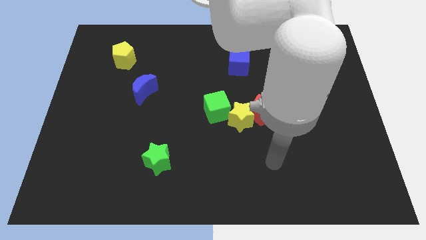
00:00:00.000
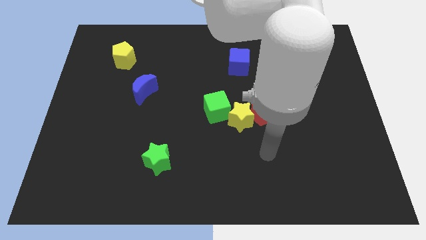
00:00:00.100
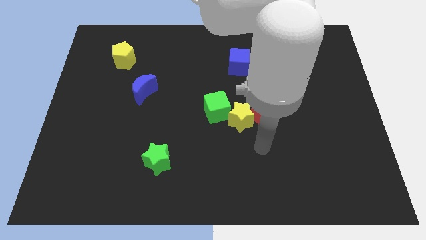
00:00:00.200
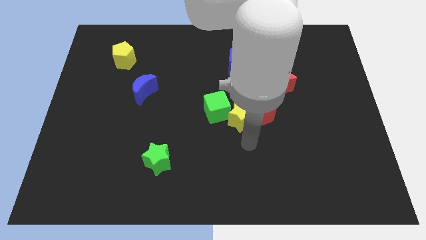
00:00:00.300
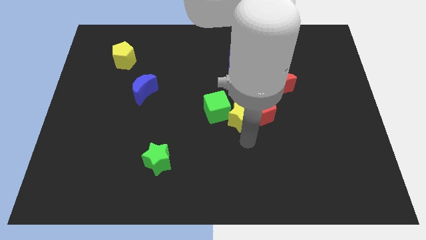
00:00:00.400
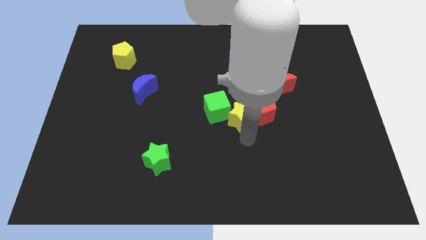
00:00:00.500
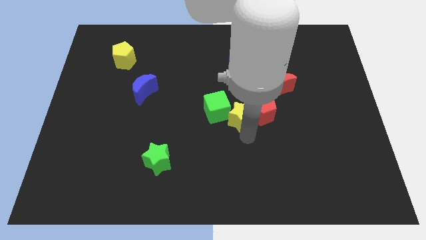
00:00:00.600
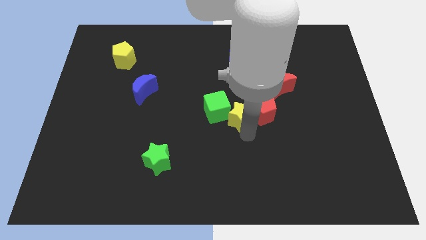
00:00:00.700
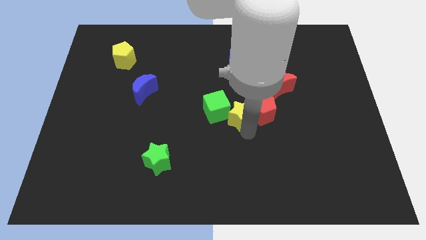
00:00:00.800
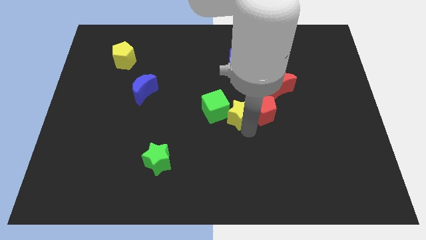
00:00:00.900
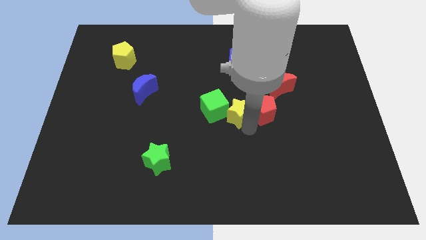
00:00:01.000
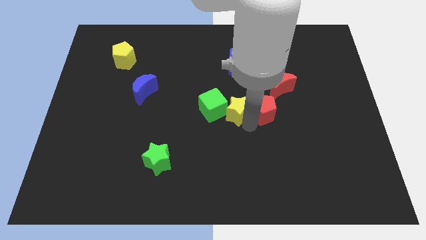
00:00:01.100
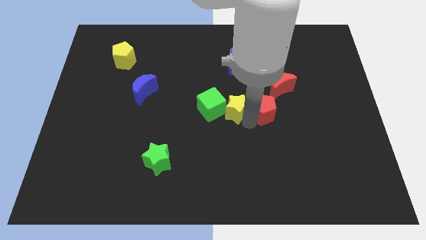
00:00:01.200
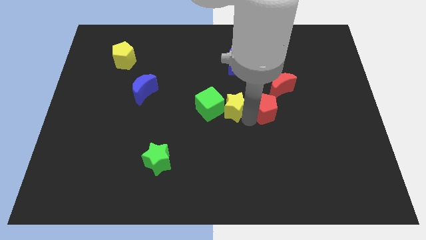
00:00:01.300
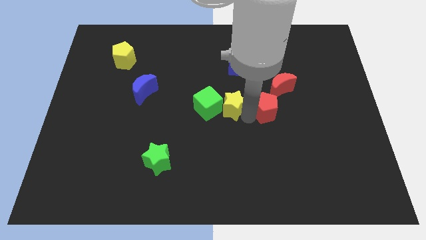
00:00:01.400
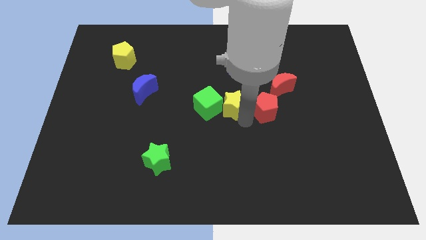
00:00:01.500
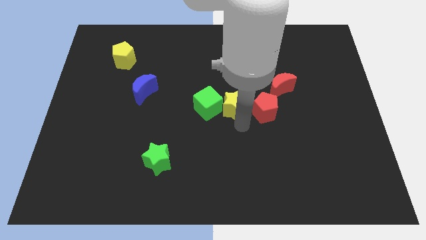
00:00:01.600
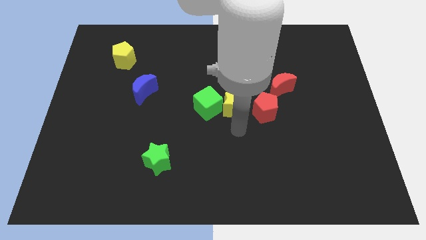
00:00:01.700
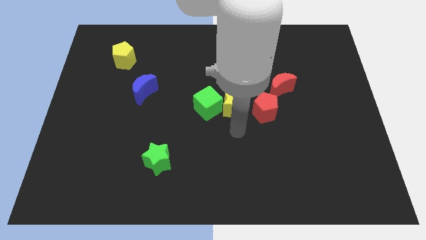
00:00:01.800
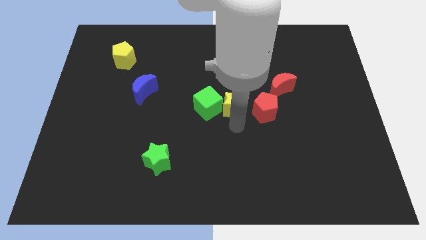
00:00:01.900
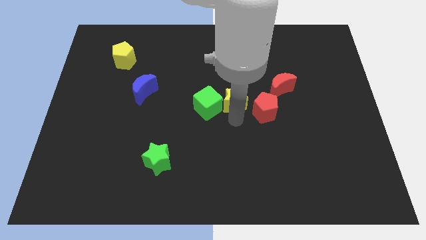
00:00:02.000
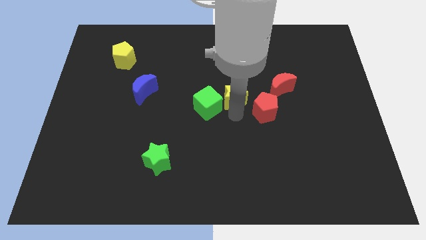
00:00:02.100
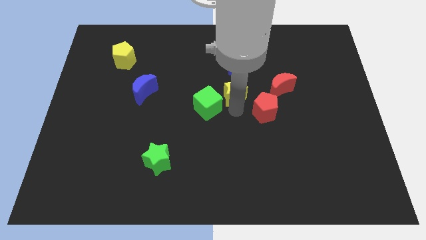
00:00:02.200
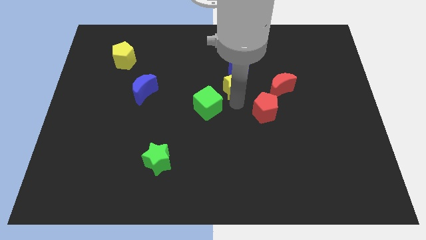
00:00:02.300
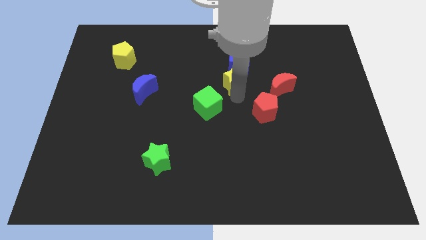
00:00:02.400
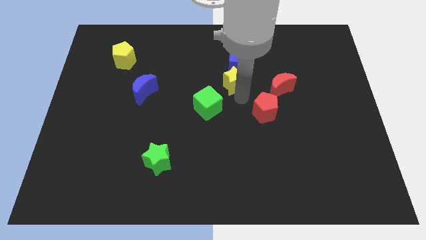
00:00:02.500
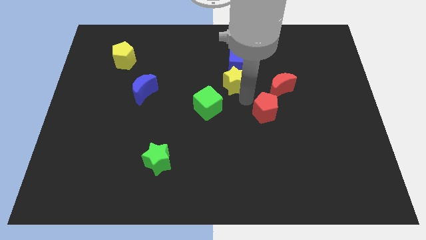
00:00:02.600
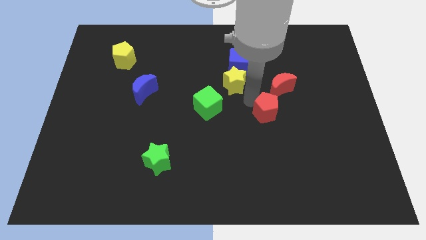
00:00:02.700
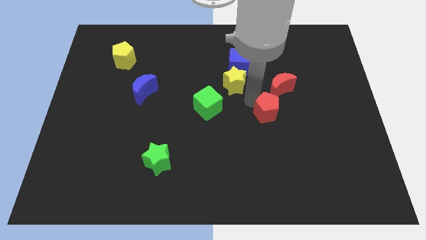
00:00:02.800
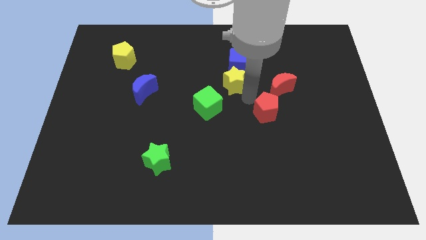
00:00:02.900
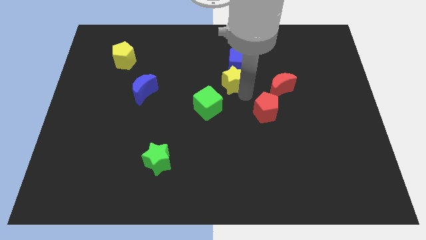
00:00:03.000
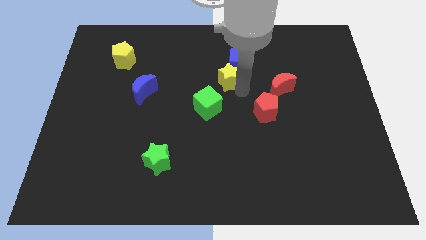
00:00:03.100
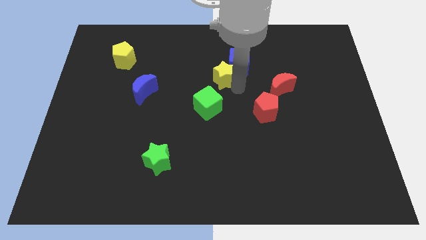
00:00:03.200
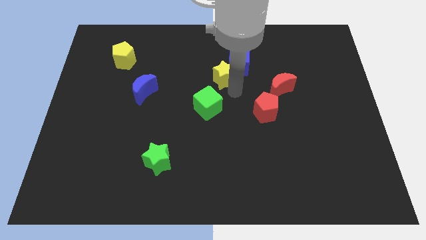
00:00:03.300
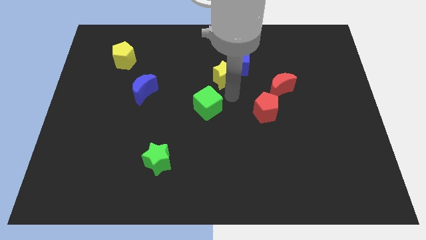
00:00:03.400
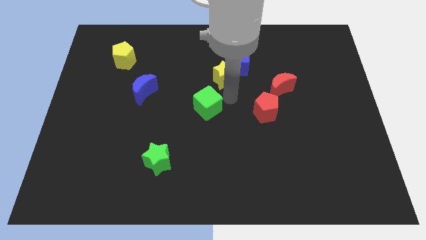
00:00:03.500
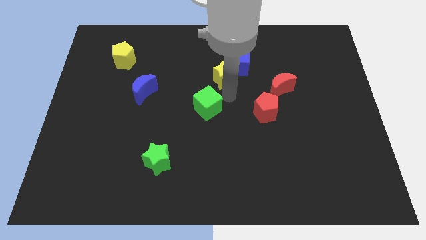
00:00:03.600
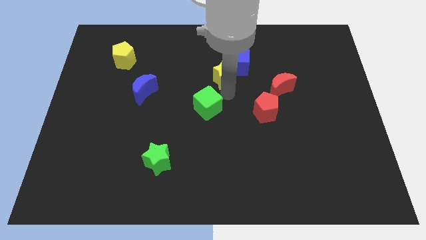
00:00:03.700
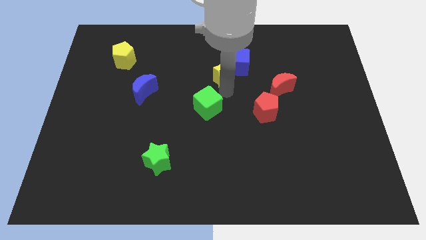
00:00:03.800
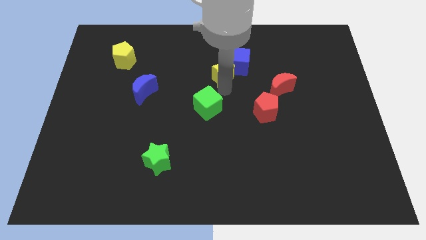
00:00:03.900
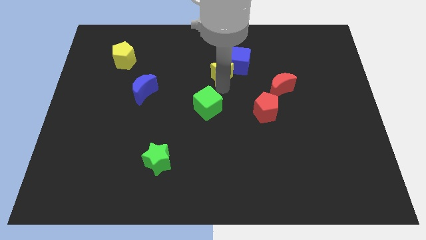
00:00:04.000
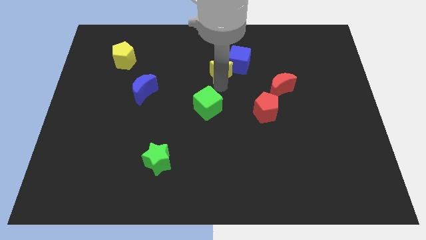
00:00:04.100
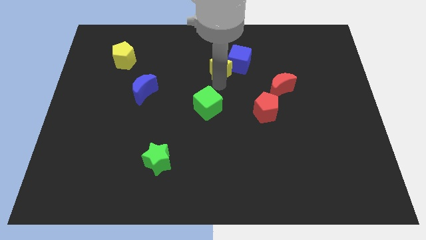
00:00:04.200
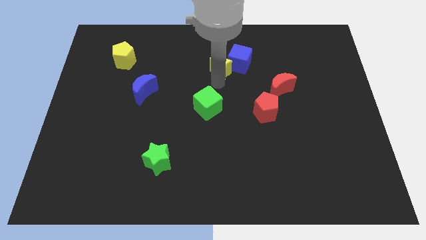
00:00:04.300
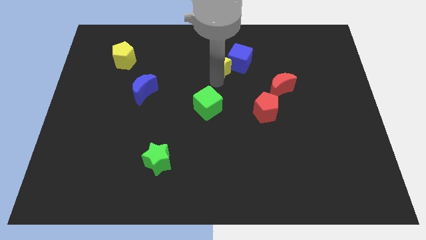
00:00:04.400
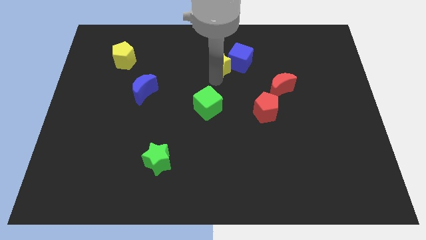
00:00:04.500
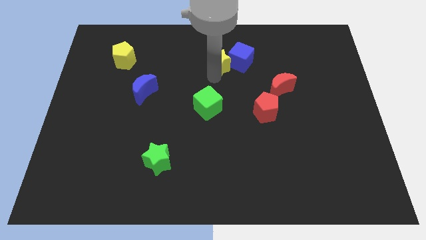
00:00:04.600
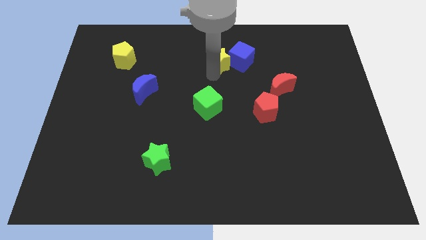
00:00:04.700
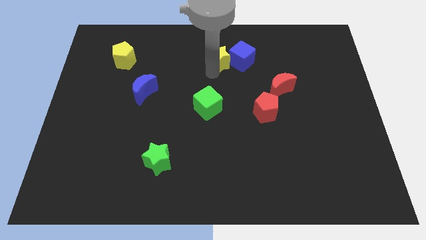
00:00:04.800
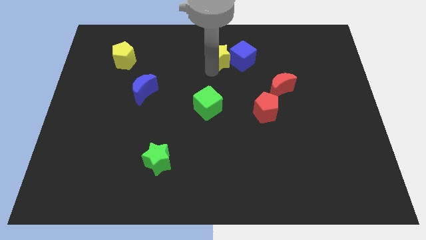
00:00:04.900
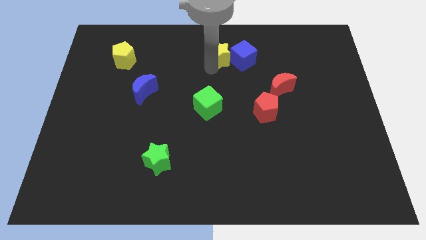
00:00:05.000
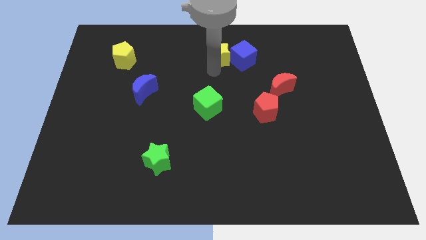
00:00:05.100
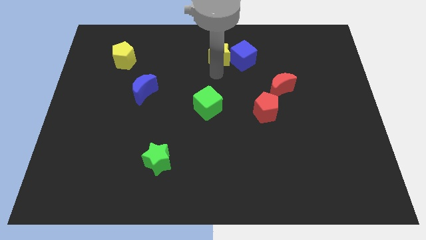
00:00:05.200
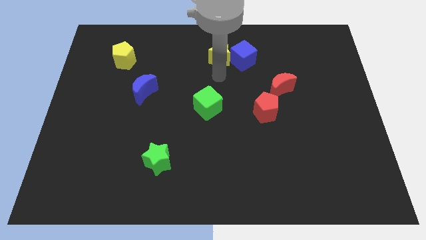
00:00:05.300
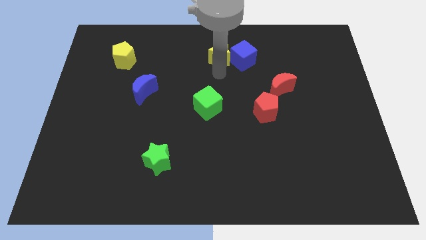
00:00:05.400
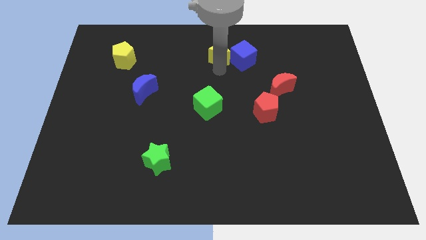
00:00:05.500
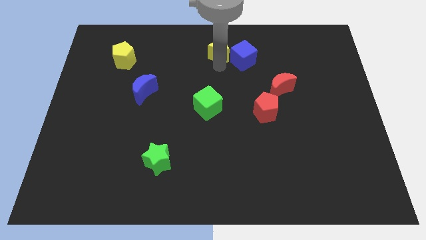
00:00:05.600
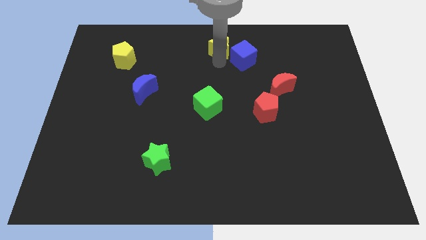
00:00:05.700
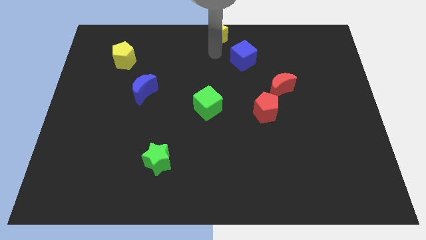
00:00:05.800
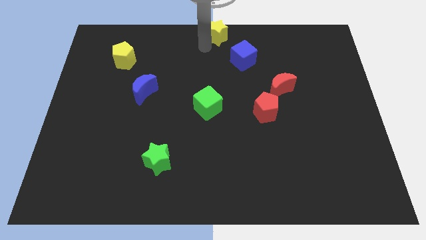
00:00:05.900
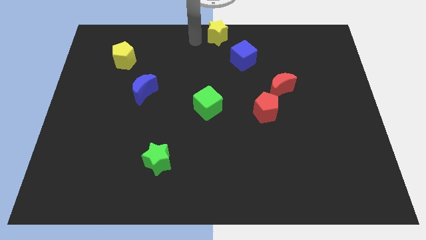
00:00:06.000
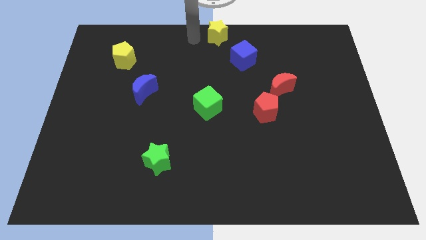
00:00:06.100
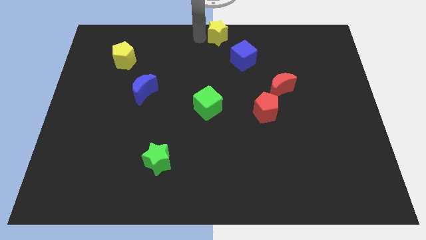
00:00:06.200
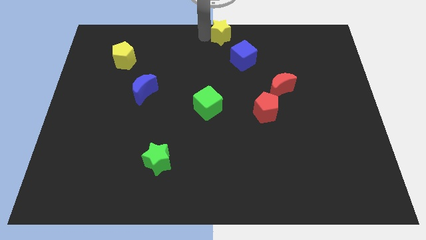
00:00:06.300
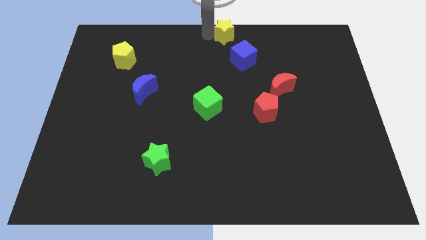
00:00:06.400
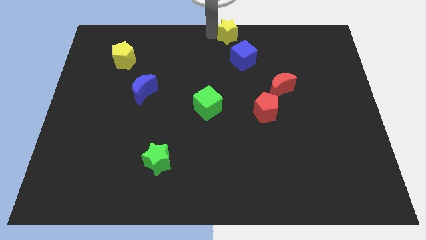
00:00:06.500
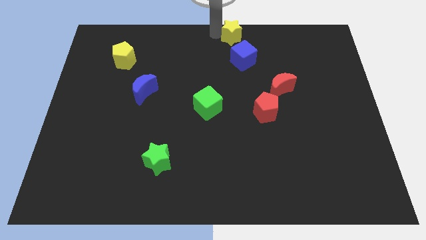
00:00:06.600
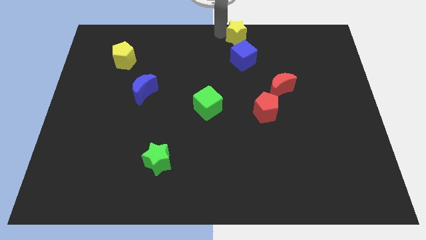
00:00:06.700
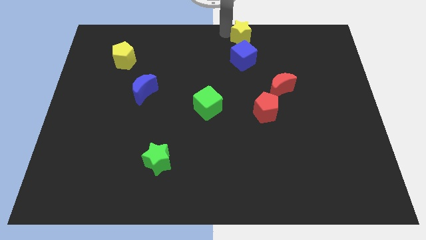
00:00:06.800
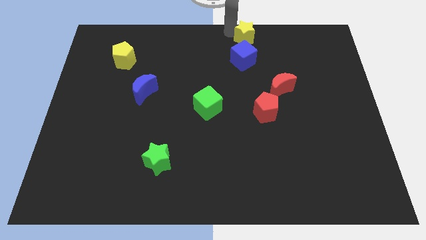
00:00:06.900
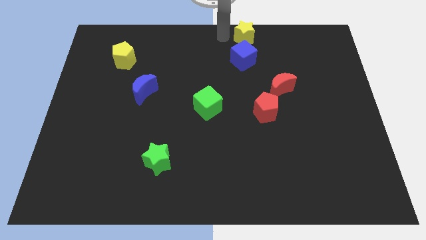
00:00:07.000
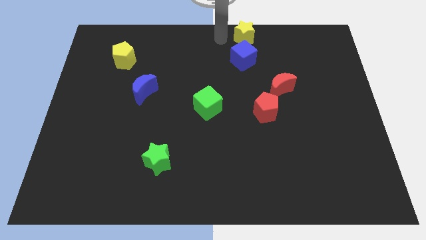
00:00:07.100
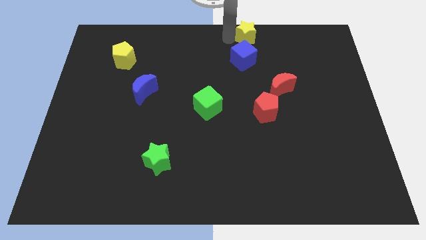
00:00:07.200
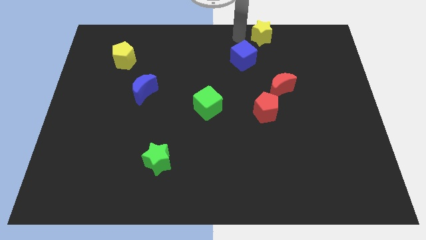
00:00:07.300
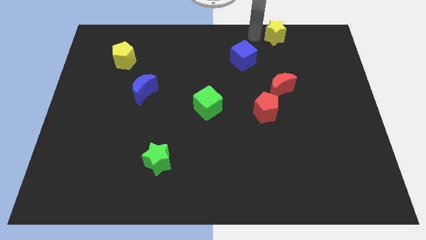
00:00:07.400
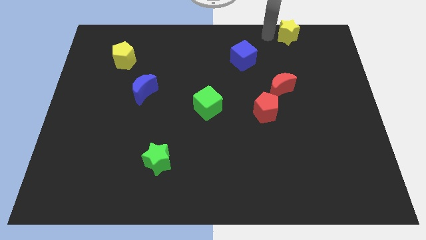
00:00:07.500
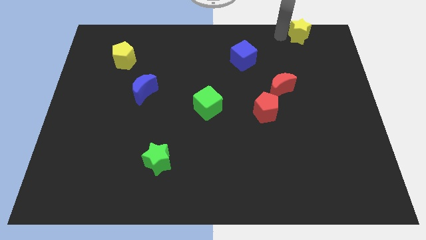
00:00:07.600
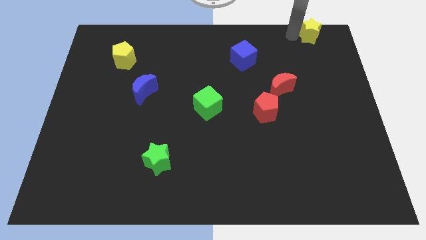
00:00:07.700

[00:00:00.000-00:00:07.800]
move the yellow star to the top right of the board

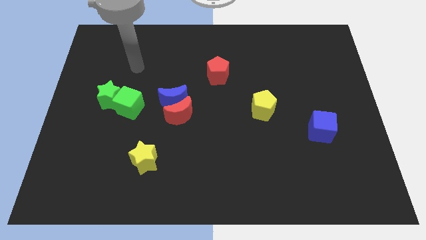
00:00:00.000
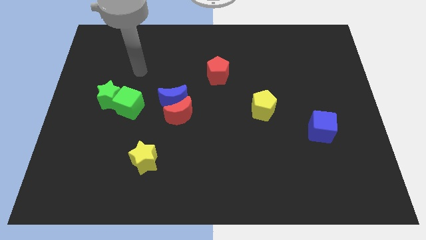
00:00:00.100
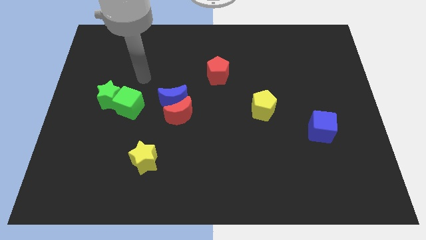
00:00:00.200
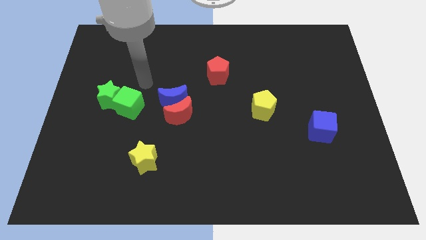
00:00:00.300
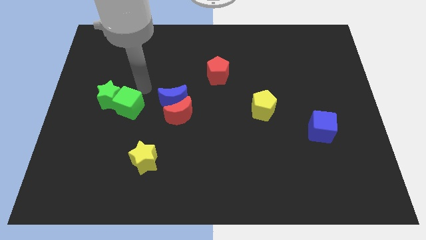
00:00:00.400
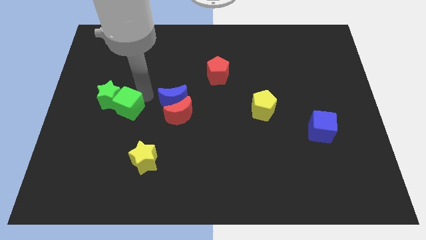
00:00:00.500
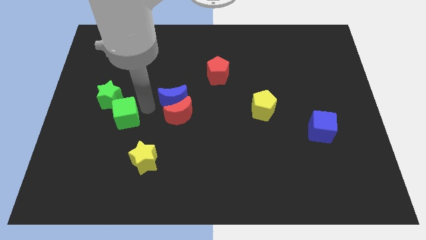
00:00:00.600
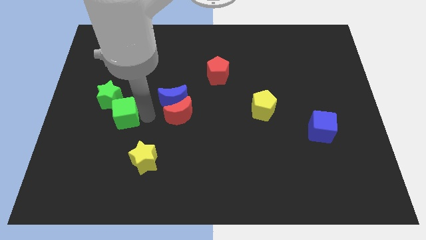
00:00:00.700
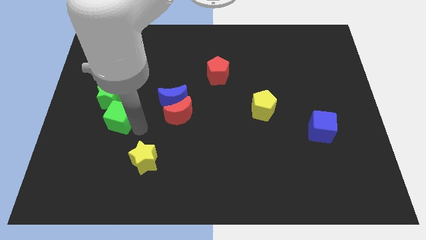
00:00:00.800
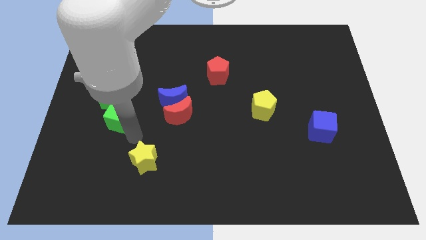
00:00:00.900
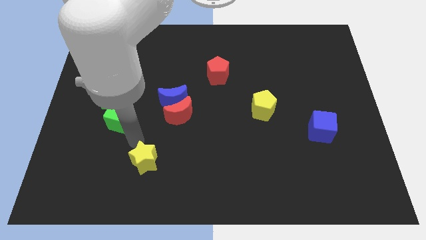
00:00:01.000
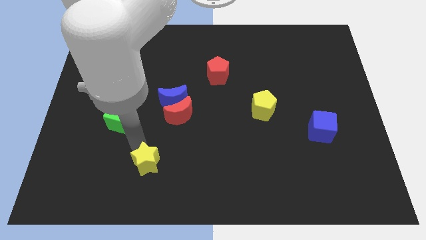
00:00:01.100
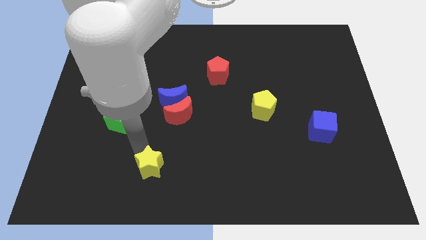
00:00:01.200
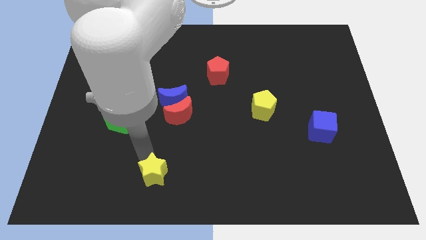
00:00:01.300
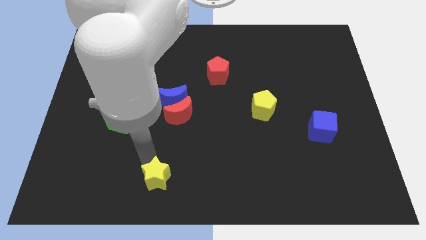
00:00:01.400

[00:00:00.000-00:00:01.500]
move the yellow star to the bottom side
